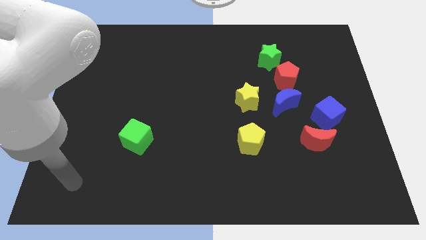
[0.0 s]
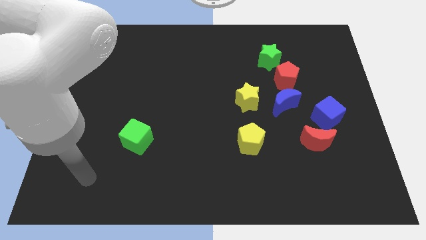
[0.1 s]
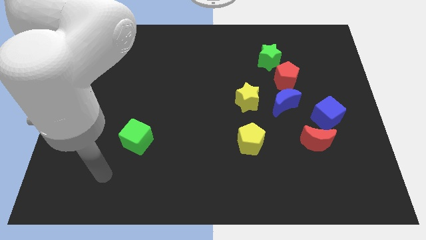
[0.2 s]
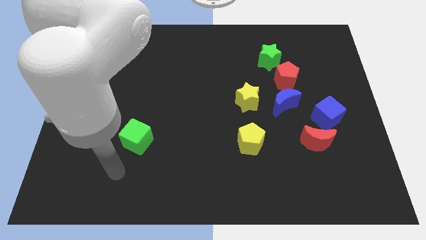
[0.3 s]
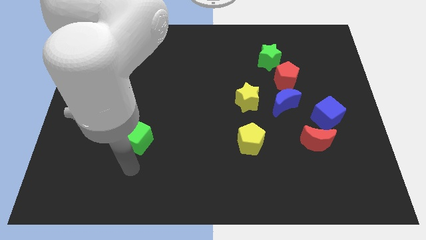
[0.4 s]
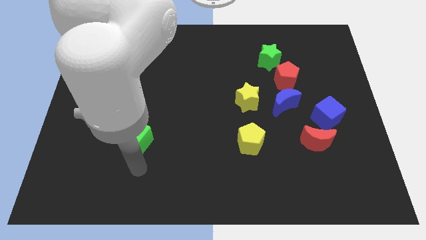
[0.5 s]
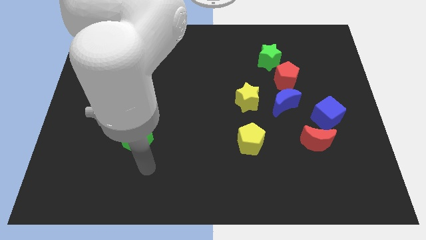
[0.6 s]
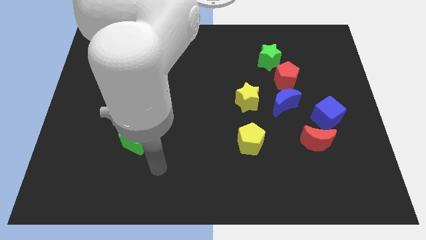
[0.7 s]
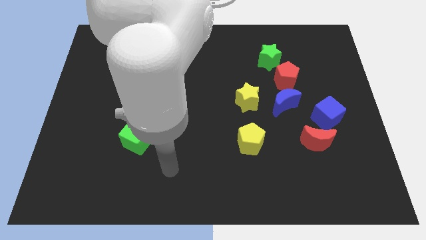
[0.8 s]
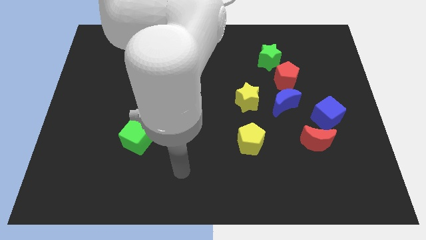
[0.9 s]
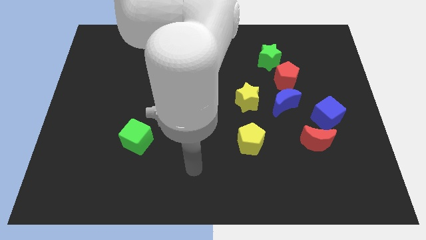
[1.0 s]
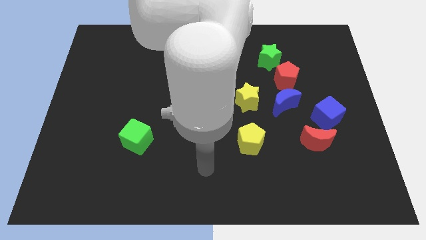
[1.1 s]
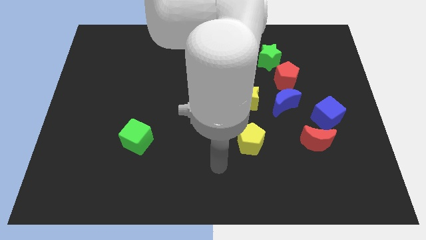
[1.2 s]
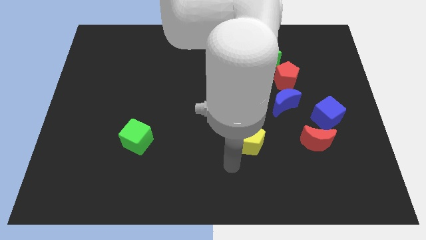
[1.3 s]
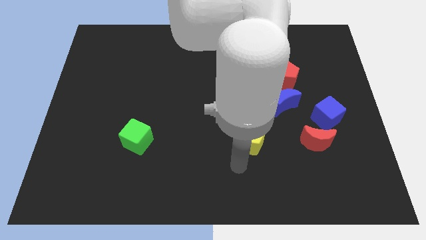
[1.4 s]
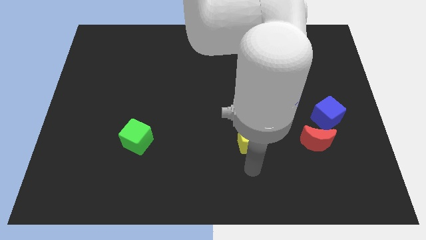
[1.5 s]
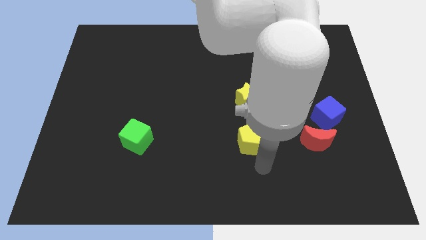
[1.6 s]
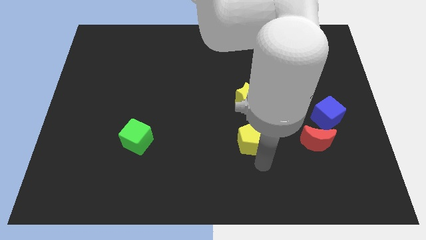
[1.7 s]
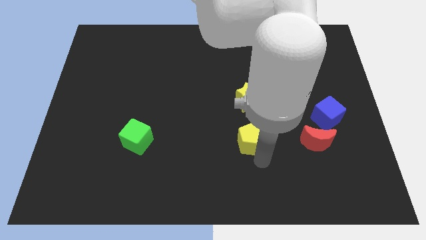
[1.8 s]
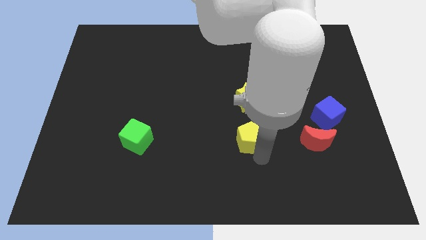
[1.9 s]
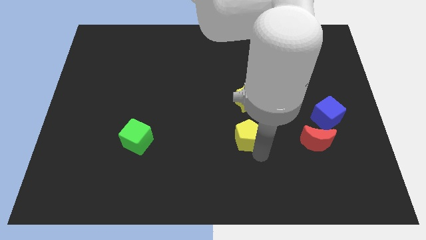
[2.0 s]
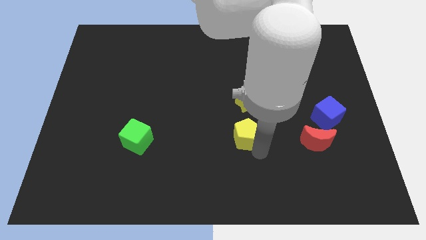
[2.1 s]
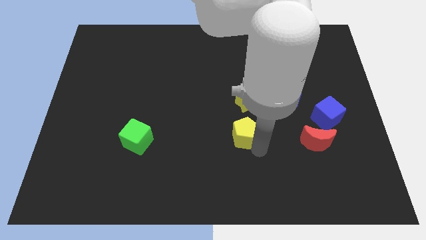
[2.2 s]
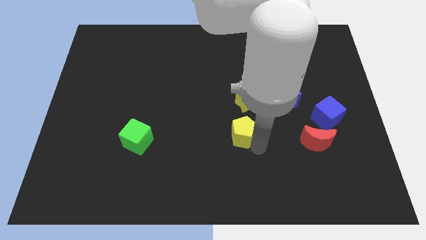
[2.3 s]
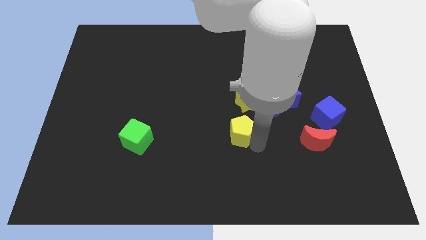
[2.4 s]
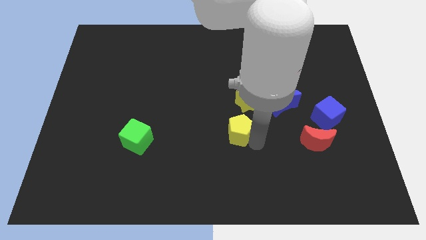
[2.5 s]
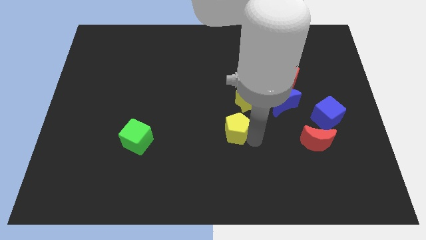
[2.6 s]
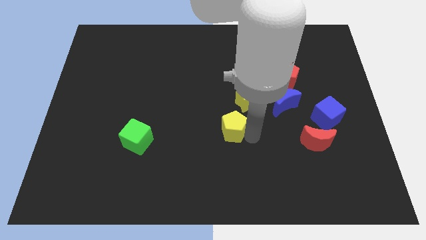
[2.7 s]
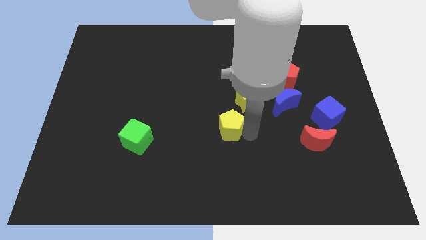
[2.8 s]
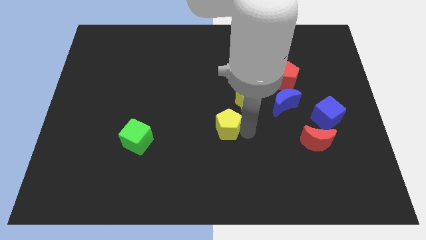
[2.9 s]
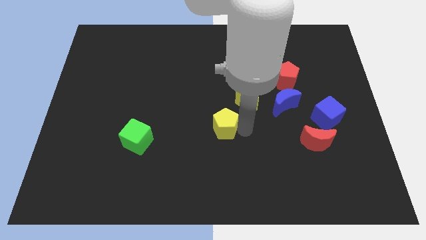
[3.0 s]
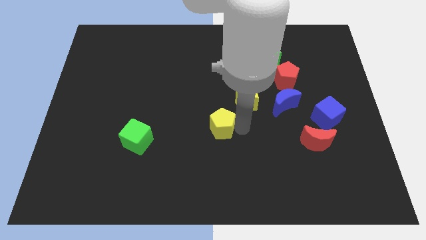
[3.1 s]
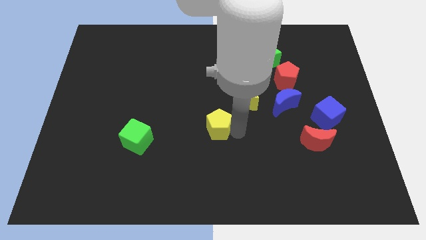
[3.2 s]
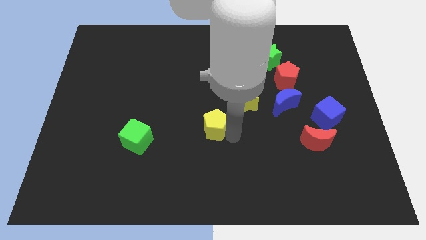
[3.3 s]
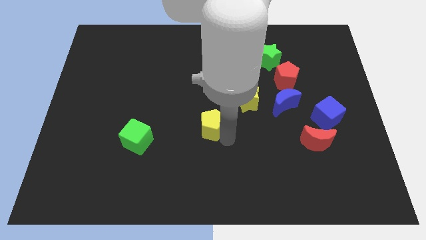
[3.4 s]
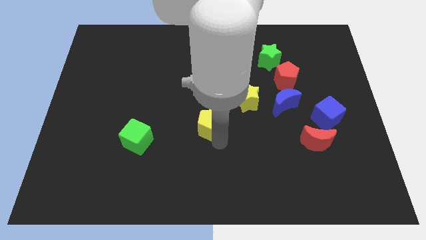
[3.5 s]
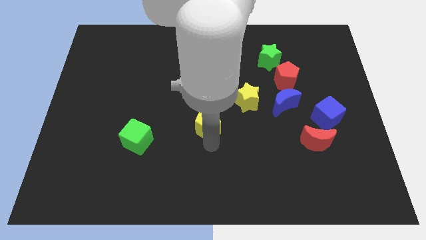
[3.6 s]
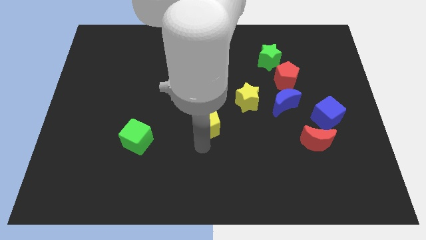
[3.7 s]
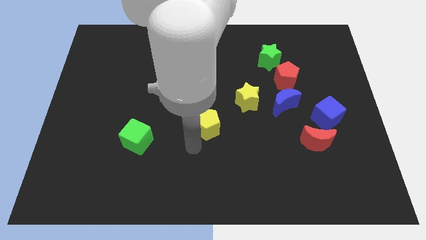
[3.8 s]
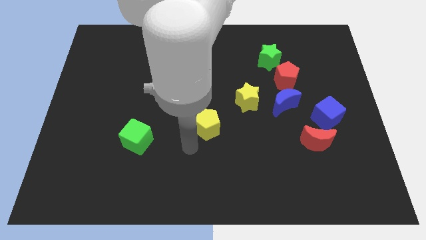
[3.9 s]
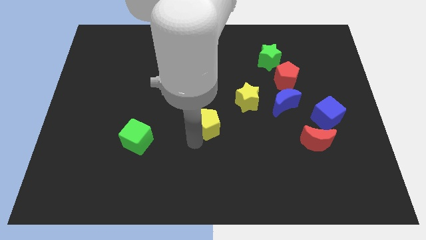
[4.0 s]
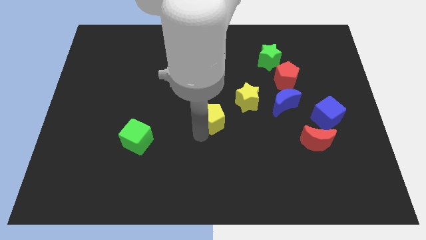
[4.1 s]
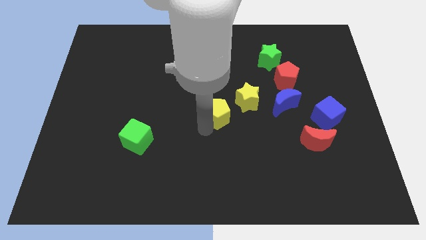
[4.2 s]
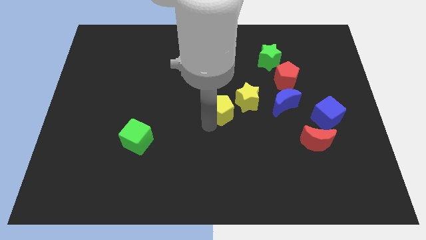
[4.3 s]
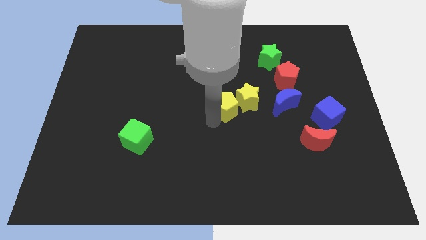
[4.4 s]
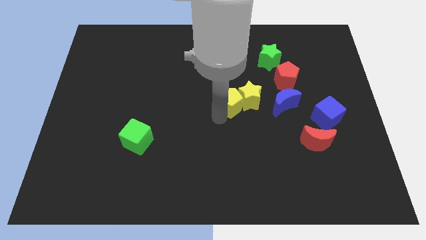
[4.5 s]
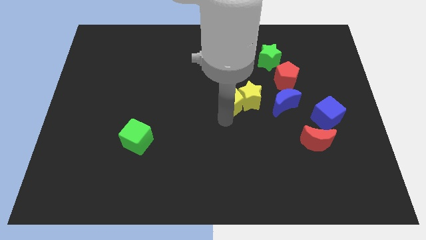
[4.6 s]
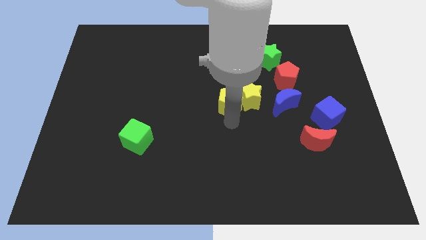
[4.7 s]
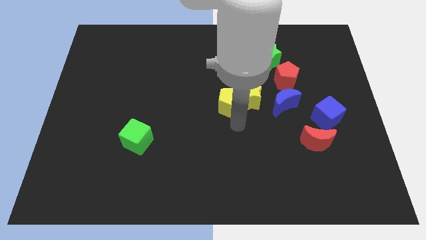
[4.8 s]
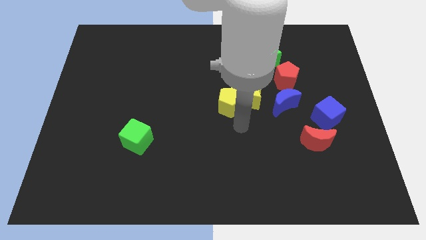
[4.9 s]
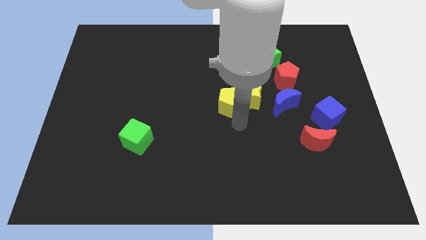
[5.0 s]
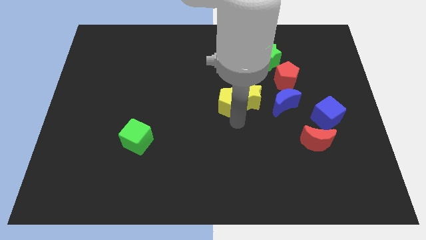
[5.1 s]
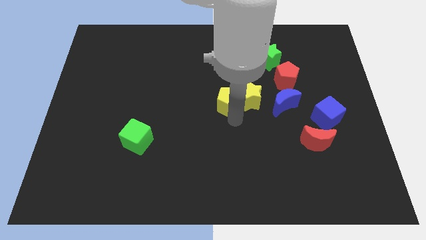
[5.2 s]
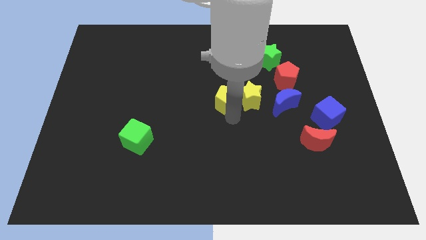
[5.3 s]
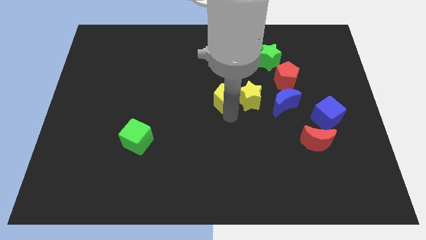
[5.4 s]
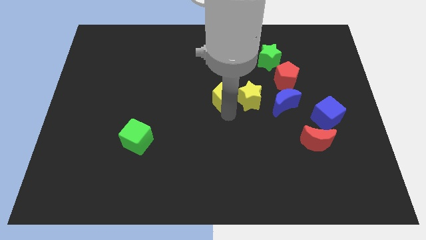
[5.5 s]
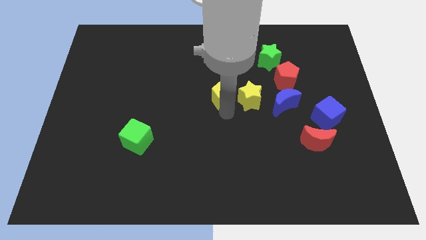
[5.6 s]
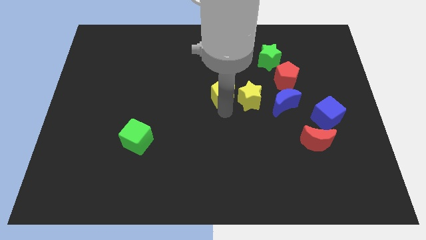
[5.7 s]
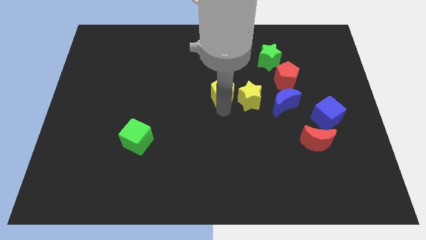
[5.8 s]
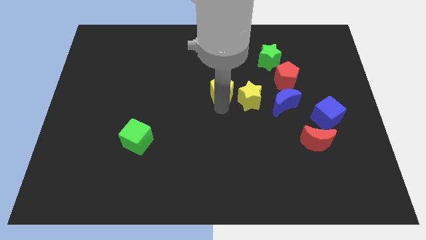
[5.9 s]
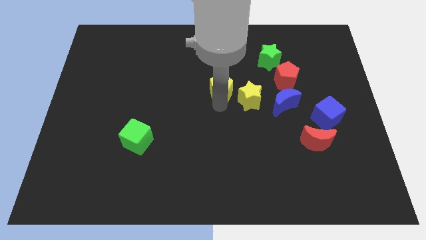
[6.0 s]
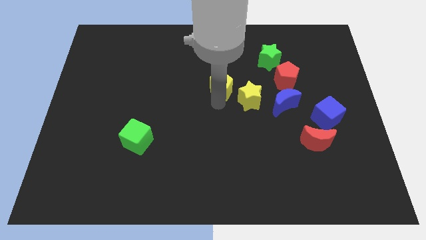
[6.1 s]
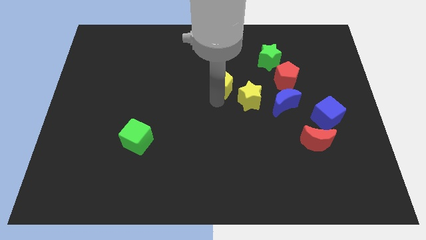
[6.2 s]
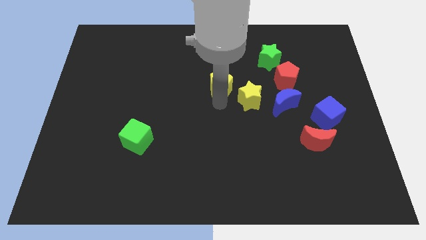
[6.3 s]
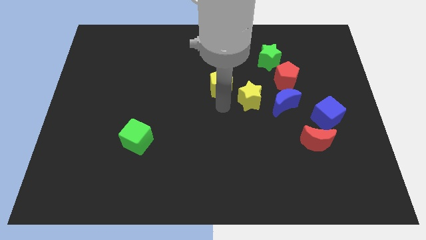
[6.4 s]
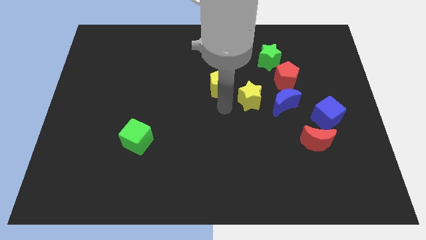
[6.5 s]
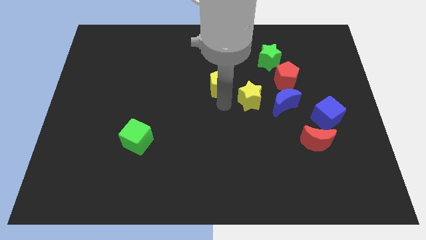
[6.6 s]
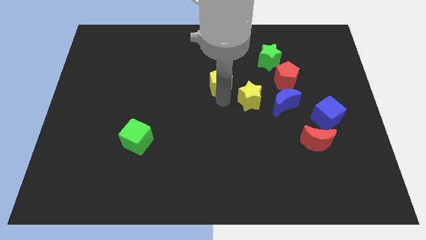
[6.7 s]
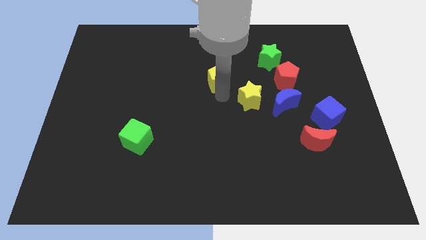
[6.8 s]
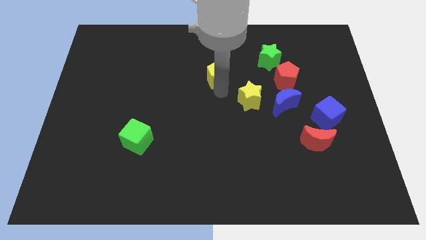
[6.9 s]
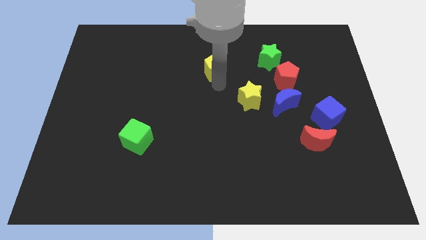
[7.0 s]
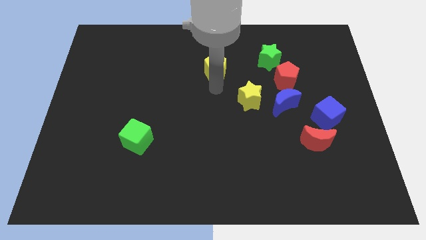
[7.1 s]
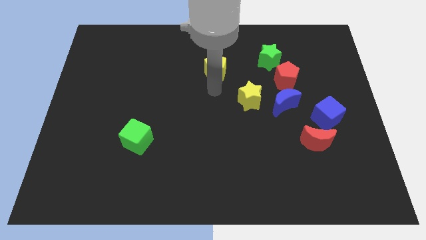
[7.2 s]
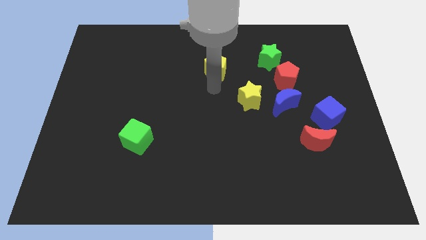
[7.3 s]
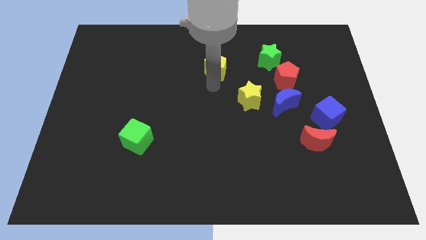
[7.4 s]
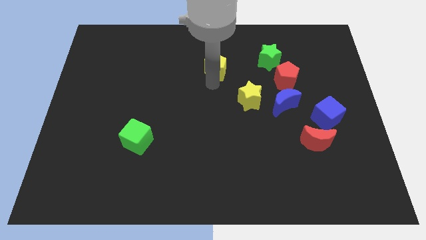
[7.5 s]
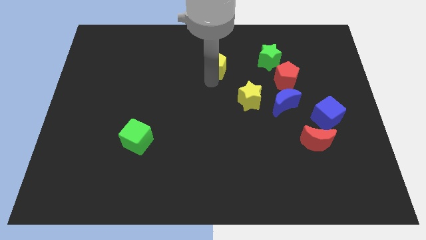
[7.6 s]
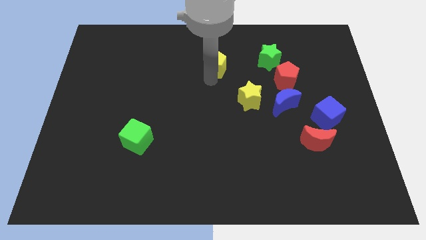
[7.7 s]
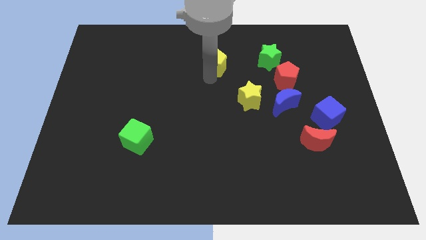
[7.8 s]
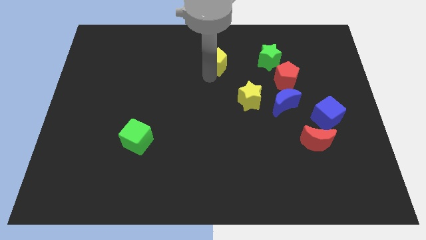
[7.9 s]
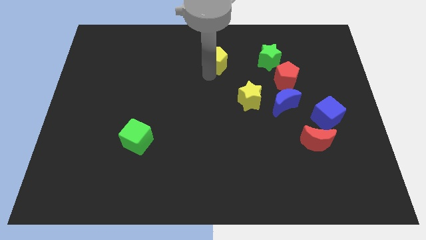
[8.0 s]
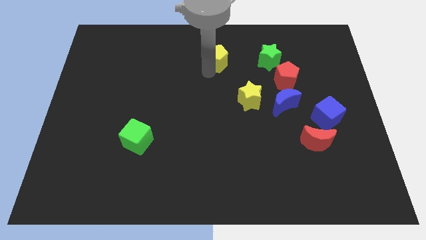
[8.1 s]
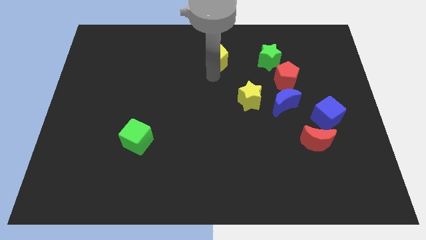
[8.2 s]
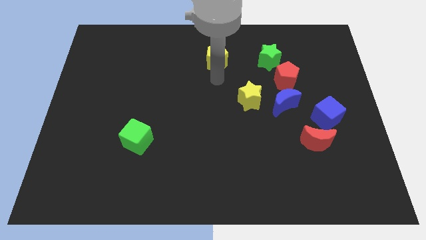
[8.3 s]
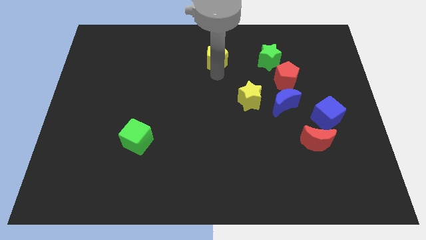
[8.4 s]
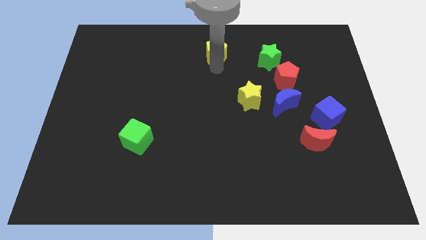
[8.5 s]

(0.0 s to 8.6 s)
slide the yellow pentagon to the top side
